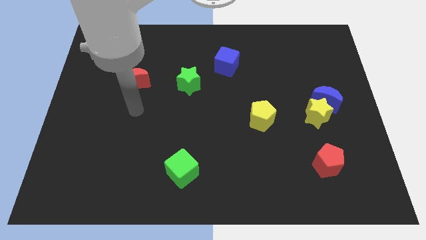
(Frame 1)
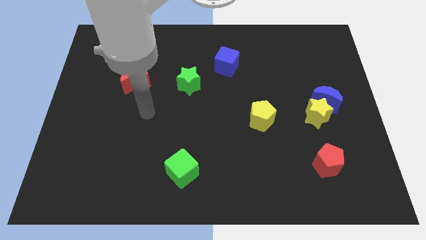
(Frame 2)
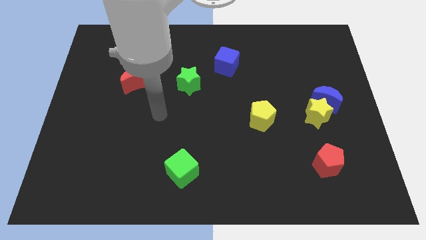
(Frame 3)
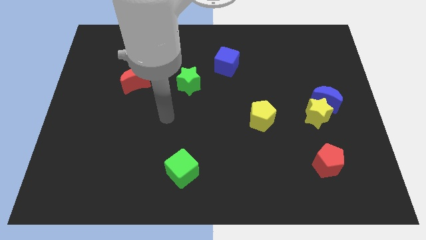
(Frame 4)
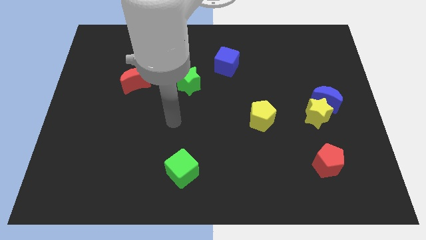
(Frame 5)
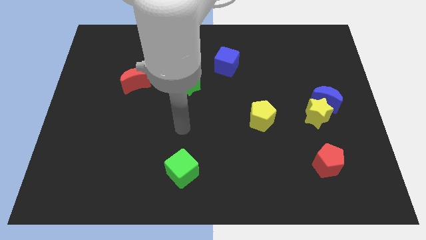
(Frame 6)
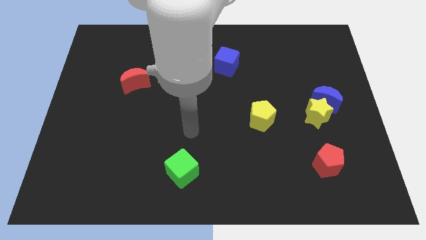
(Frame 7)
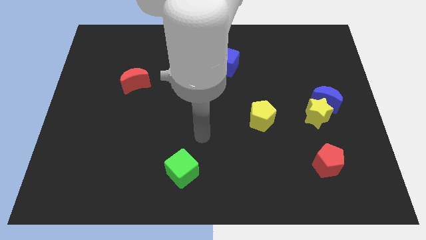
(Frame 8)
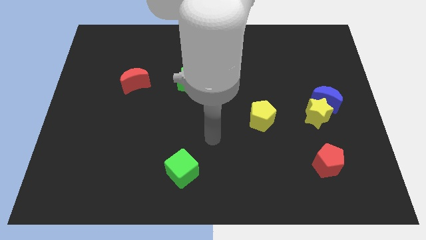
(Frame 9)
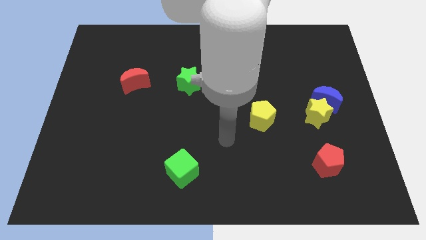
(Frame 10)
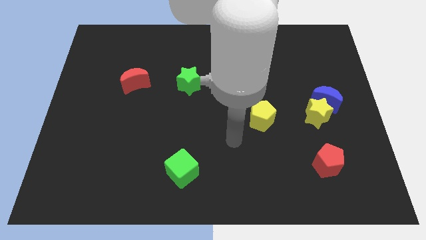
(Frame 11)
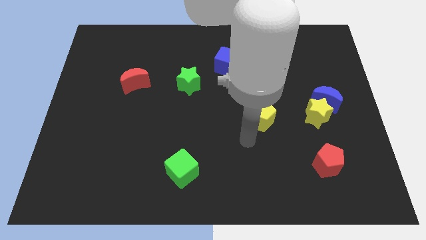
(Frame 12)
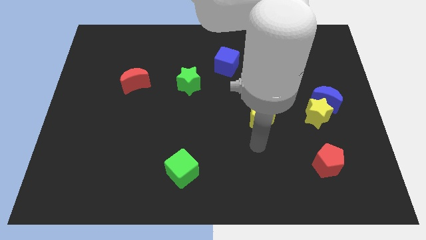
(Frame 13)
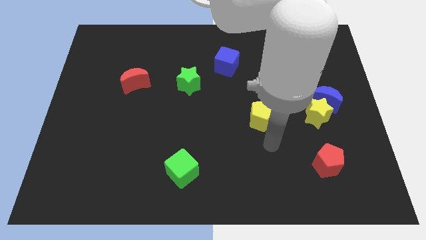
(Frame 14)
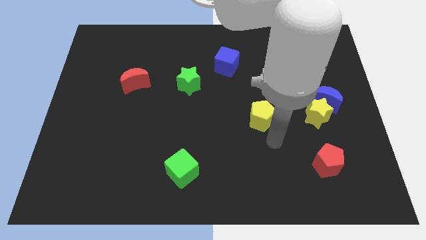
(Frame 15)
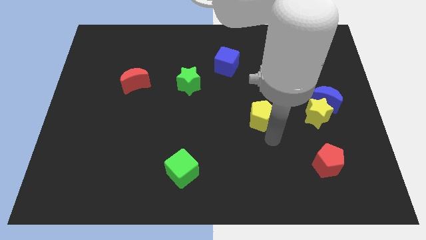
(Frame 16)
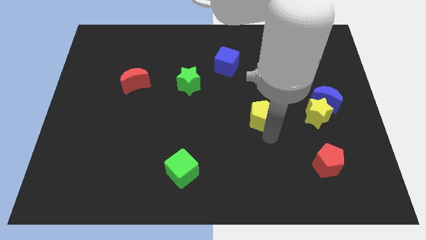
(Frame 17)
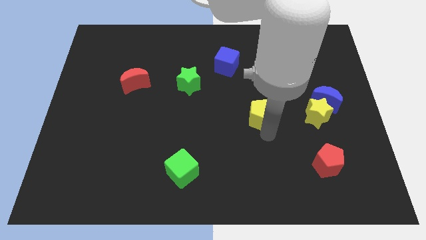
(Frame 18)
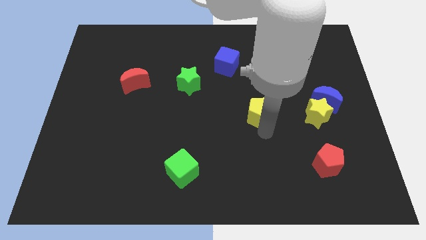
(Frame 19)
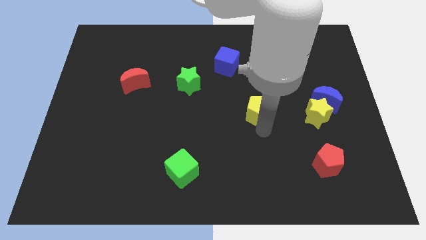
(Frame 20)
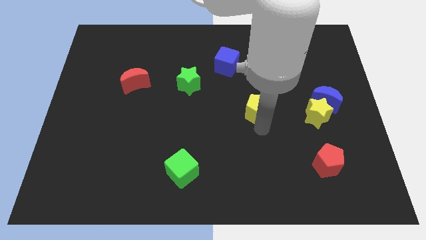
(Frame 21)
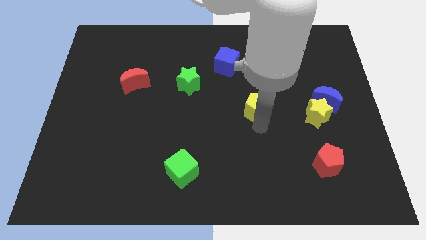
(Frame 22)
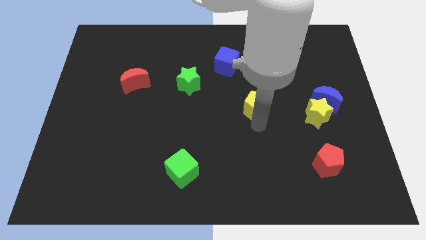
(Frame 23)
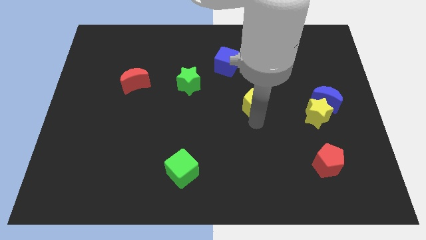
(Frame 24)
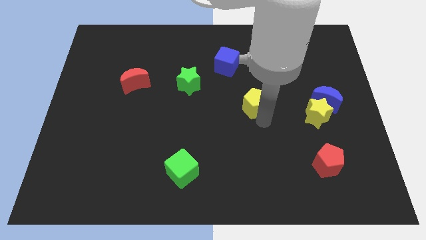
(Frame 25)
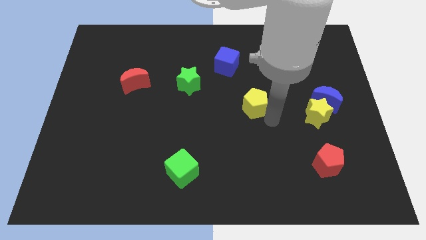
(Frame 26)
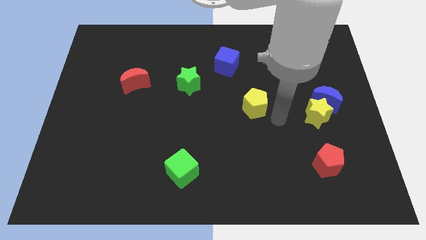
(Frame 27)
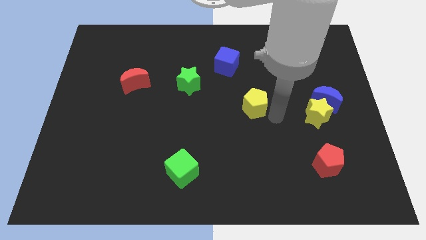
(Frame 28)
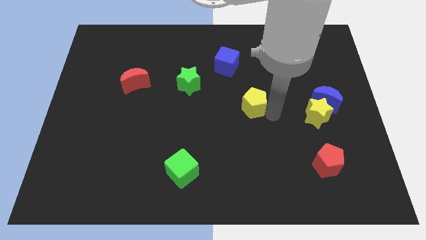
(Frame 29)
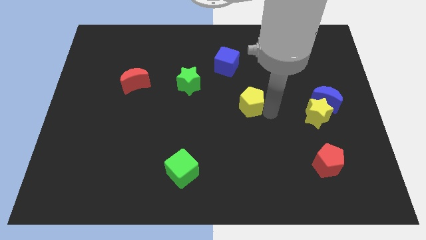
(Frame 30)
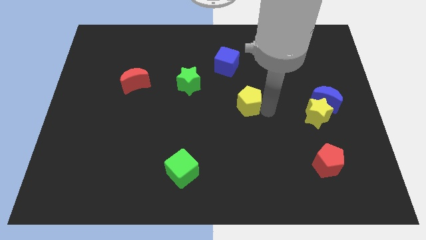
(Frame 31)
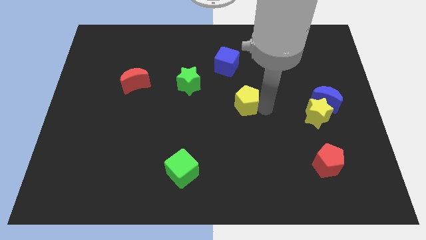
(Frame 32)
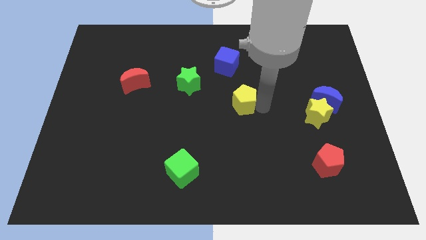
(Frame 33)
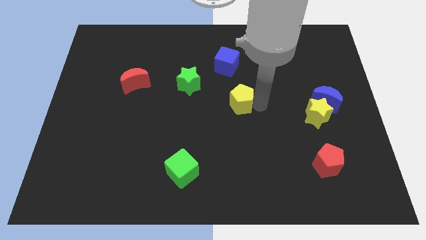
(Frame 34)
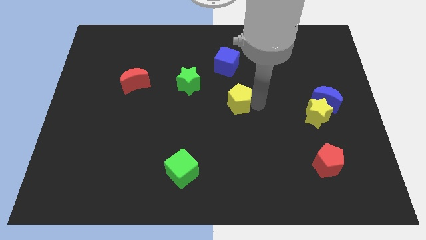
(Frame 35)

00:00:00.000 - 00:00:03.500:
push the yellow pentagon a bit up and to the left

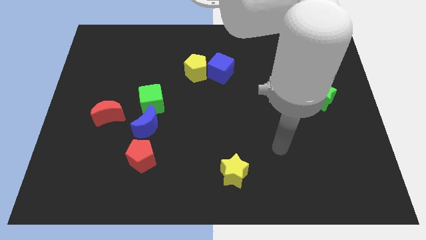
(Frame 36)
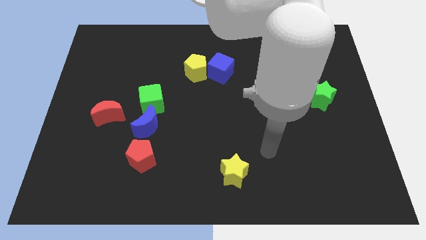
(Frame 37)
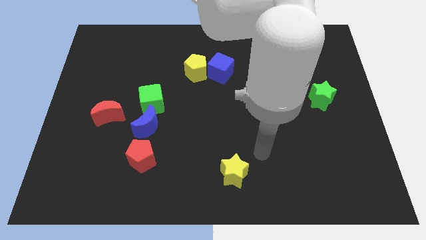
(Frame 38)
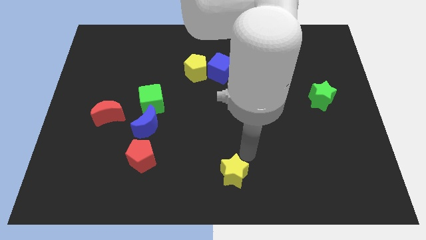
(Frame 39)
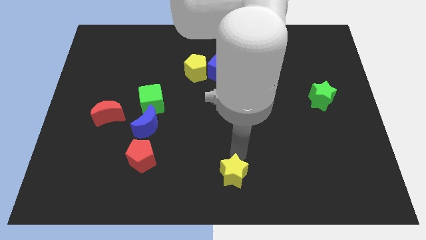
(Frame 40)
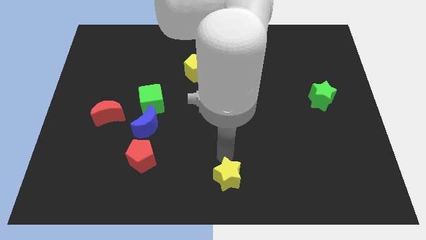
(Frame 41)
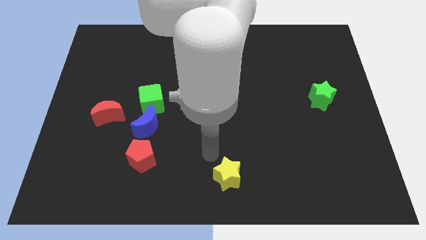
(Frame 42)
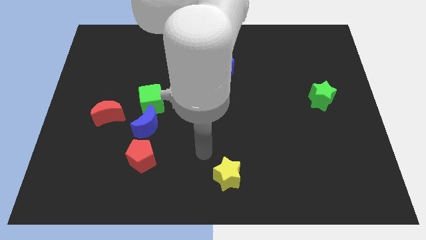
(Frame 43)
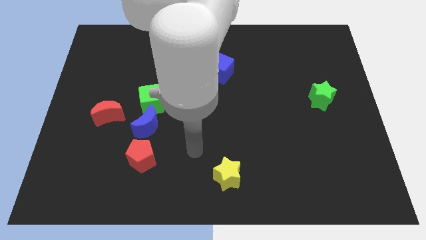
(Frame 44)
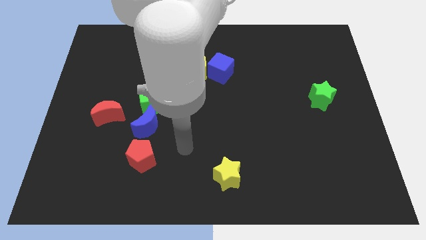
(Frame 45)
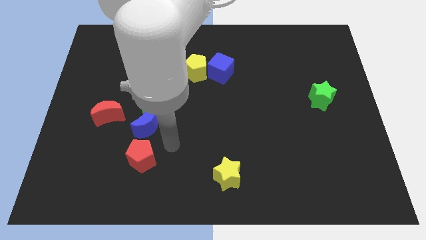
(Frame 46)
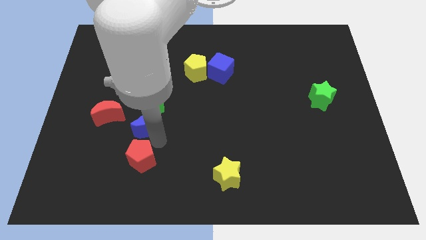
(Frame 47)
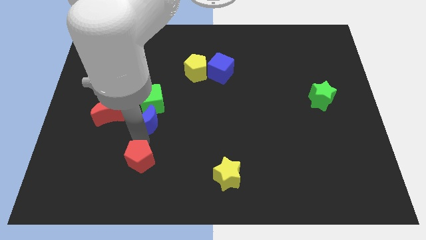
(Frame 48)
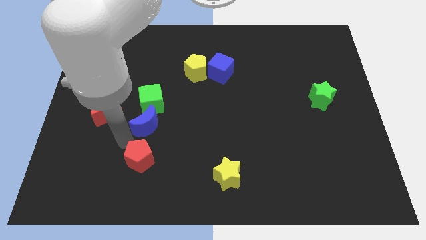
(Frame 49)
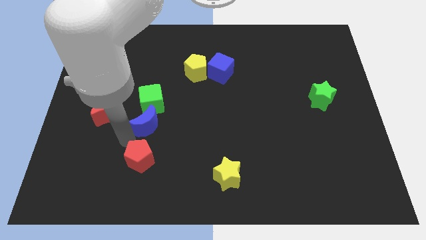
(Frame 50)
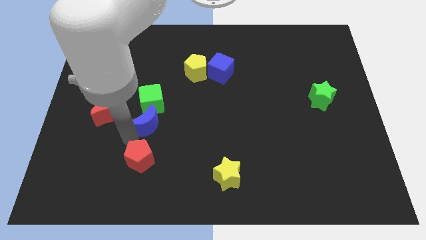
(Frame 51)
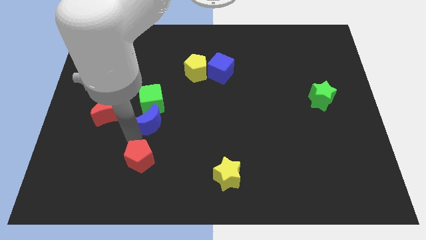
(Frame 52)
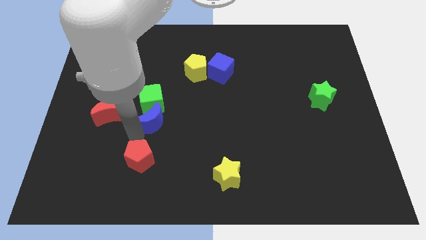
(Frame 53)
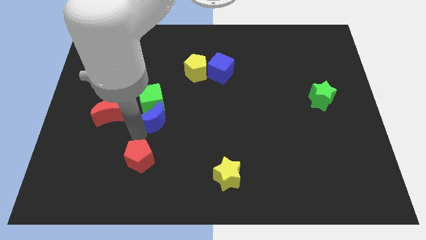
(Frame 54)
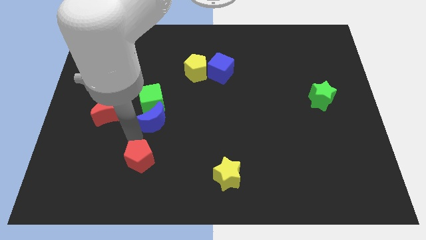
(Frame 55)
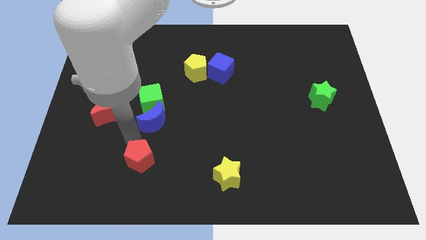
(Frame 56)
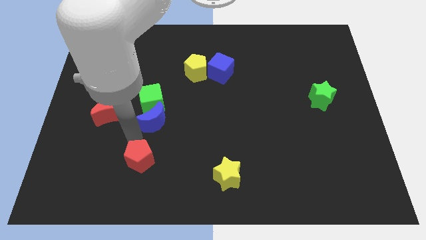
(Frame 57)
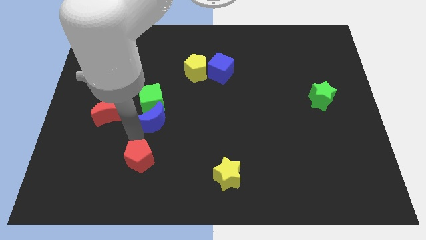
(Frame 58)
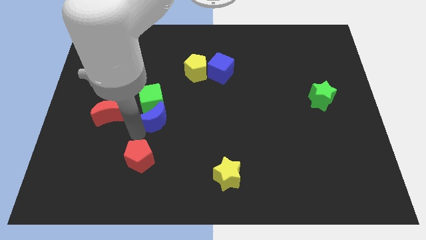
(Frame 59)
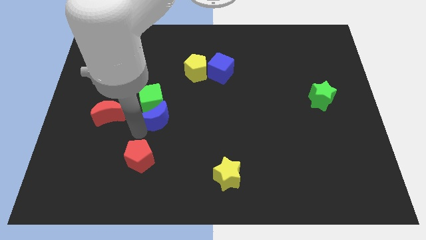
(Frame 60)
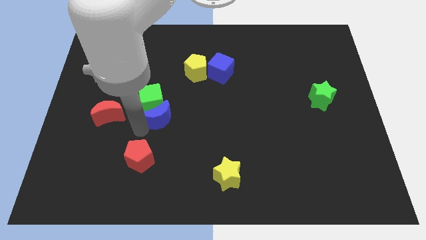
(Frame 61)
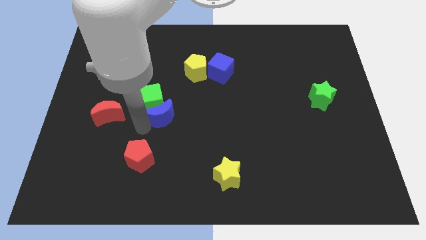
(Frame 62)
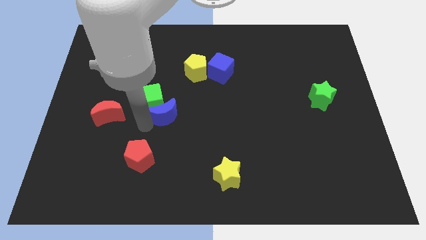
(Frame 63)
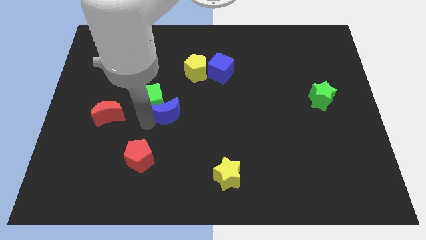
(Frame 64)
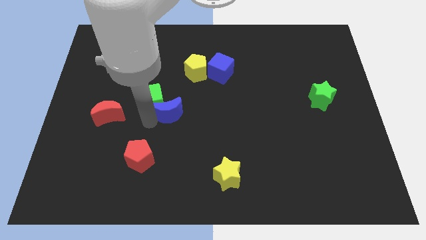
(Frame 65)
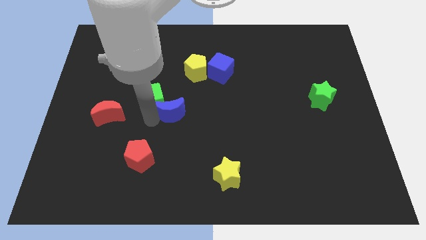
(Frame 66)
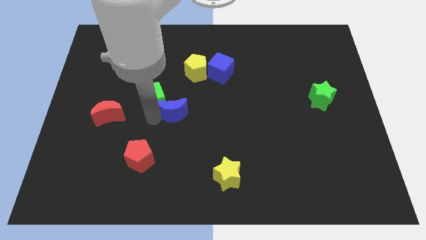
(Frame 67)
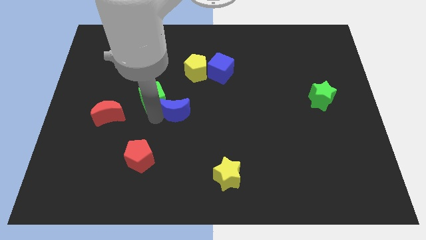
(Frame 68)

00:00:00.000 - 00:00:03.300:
slightly slide the blue moon upwards and to the right

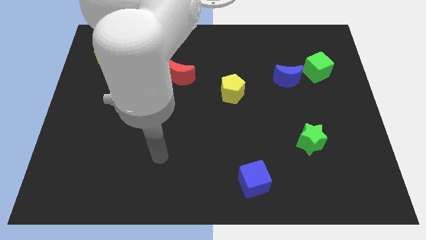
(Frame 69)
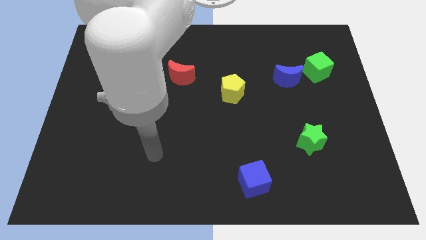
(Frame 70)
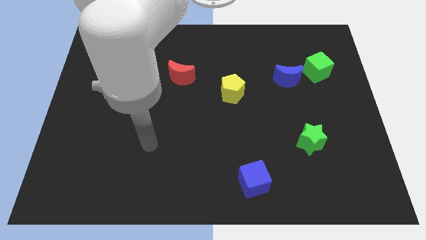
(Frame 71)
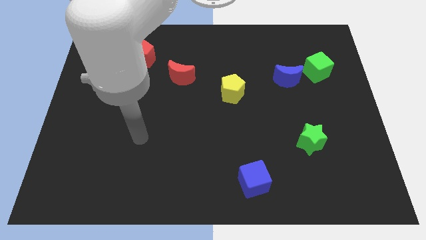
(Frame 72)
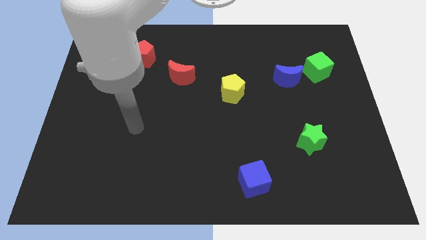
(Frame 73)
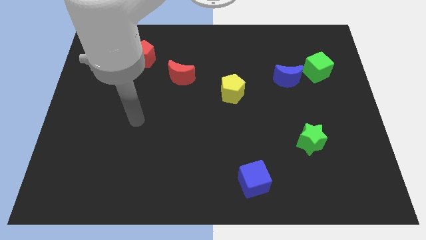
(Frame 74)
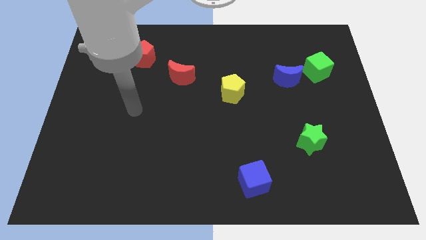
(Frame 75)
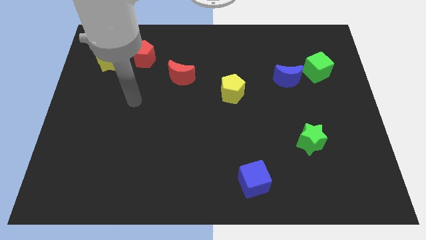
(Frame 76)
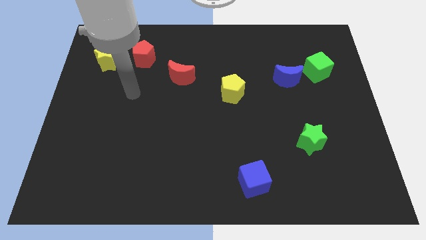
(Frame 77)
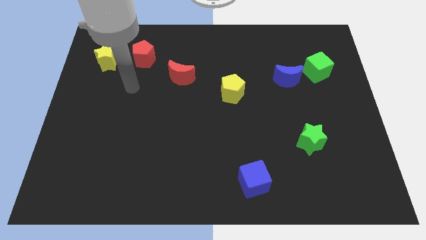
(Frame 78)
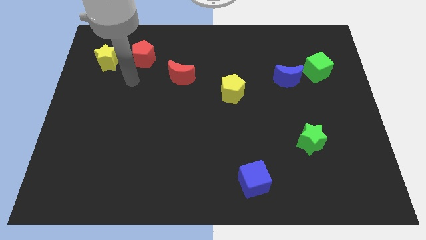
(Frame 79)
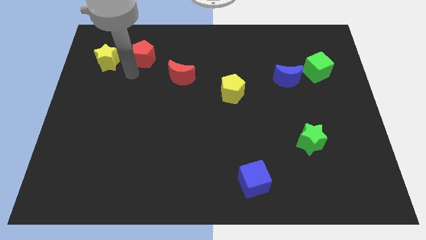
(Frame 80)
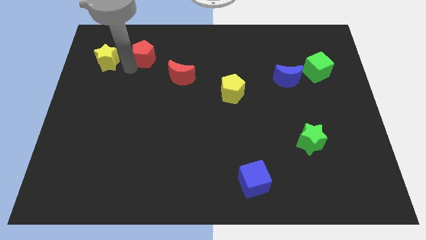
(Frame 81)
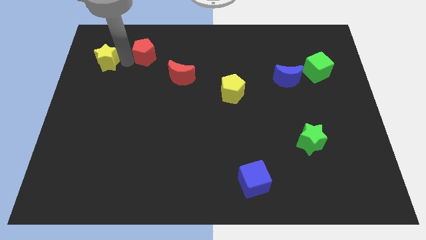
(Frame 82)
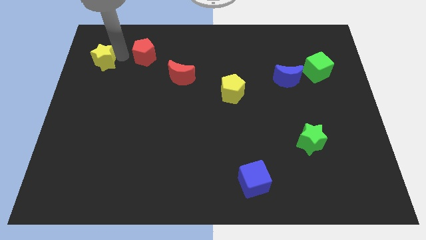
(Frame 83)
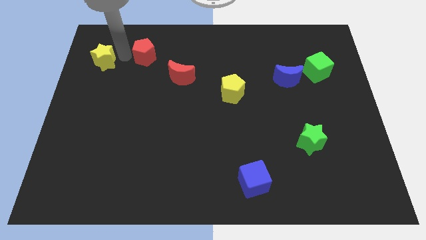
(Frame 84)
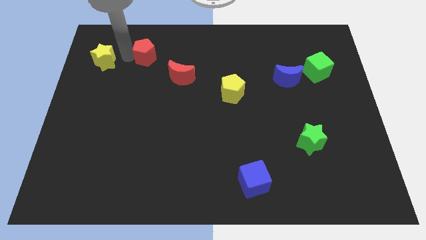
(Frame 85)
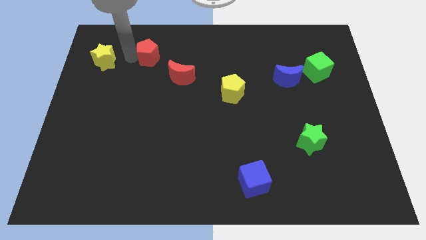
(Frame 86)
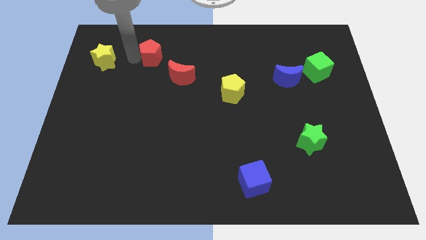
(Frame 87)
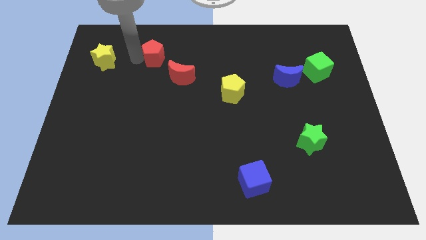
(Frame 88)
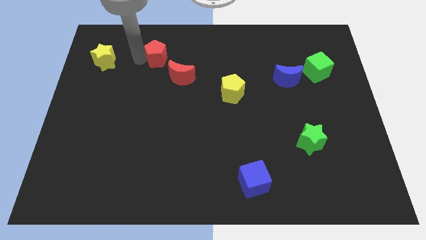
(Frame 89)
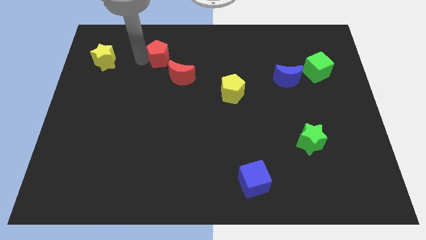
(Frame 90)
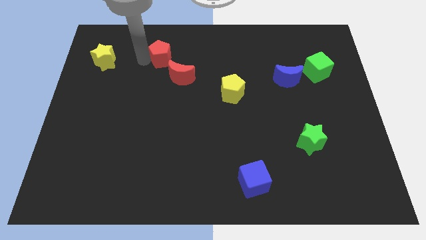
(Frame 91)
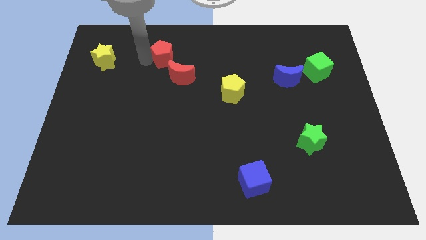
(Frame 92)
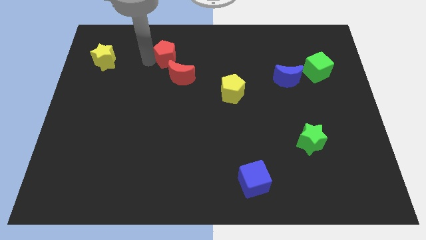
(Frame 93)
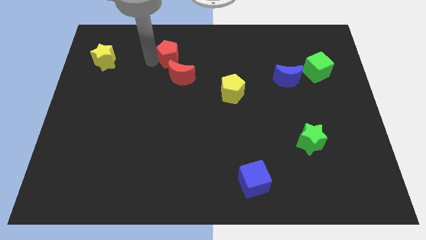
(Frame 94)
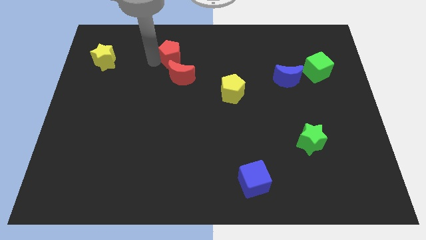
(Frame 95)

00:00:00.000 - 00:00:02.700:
slide the red pentagon a bit to the right
